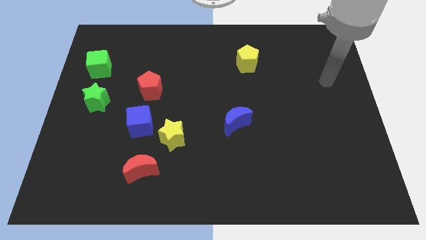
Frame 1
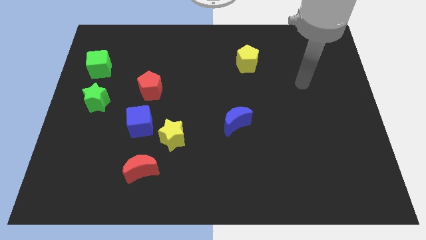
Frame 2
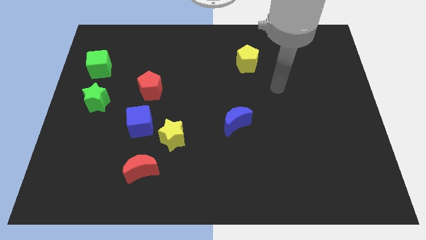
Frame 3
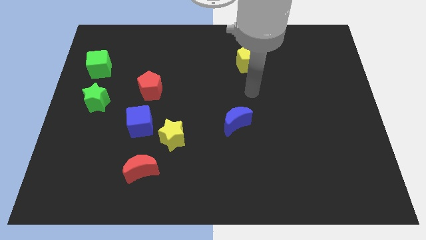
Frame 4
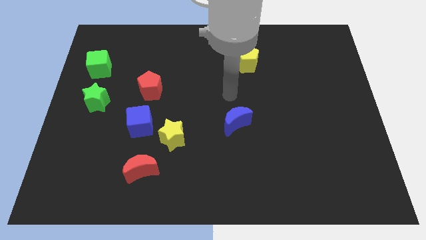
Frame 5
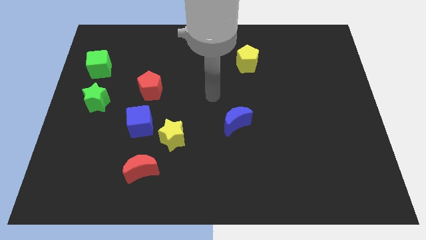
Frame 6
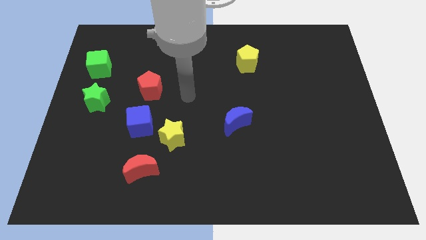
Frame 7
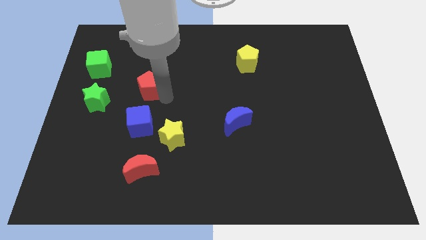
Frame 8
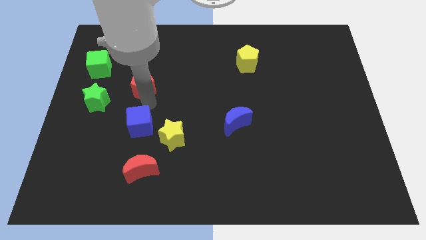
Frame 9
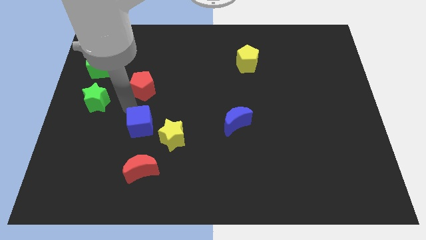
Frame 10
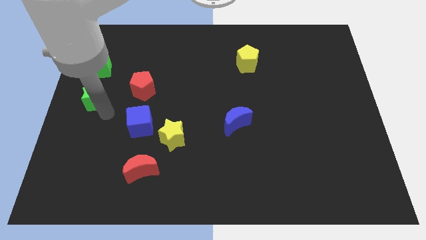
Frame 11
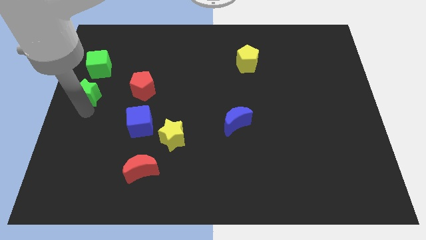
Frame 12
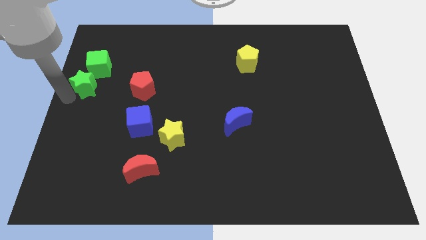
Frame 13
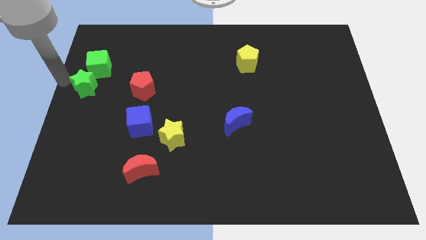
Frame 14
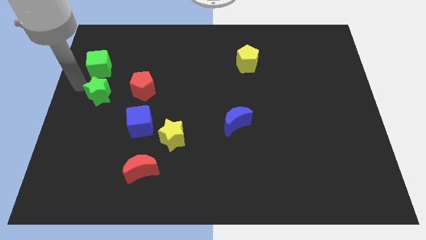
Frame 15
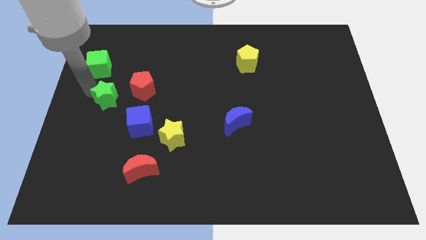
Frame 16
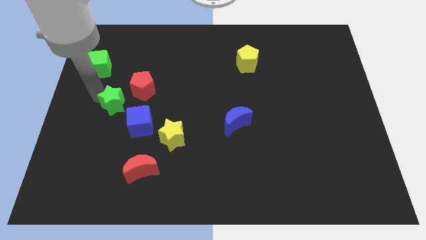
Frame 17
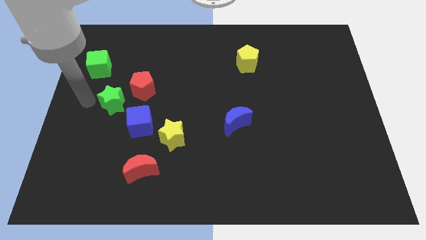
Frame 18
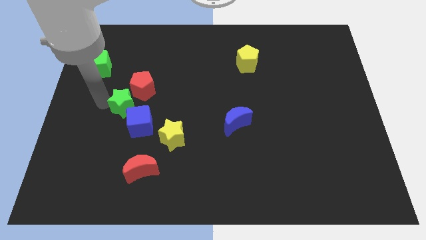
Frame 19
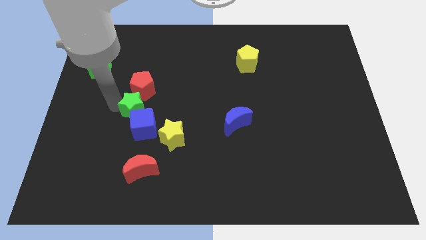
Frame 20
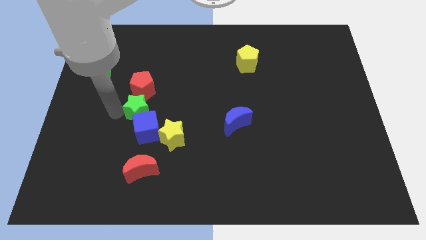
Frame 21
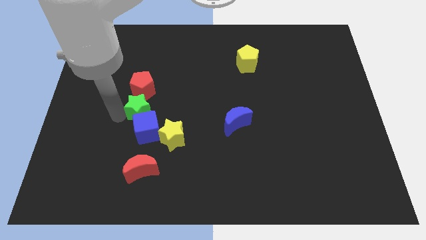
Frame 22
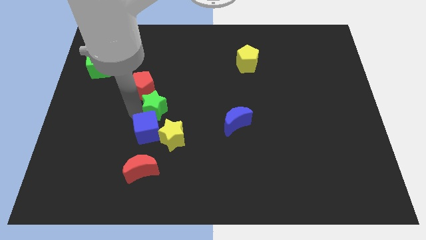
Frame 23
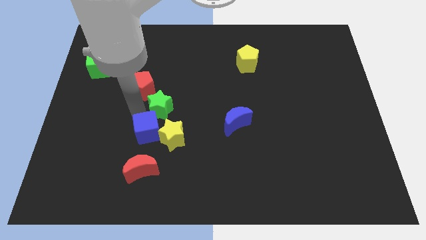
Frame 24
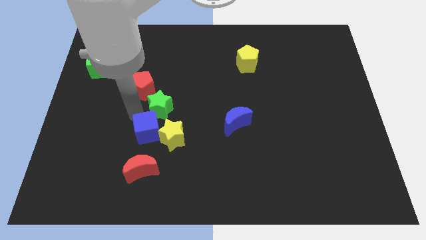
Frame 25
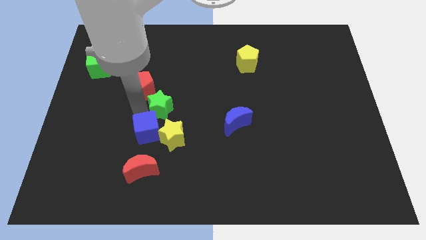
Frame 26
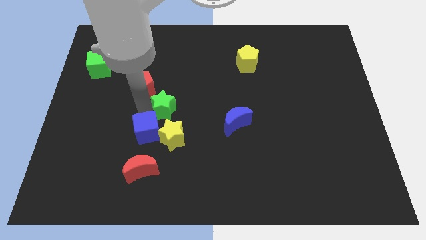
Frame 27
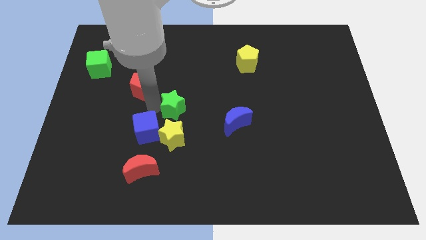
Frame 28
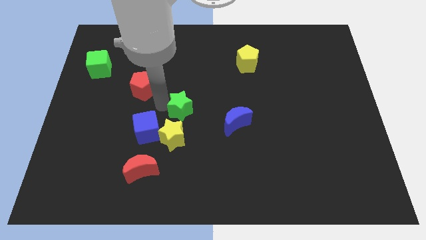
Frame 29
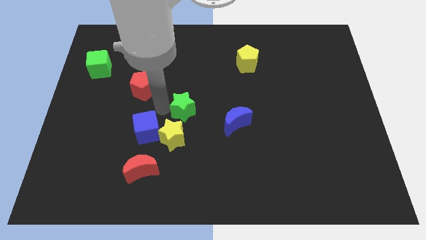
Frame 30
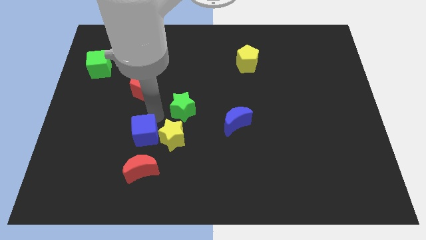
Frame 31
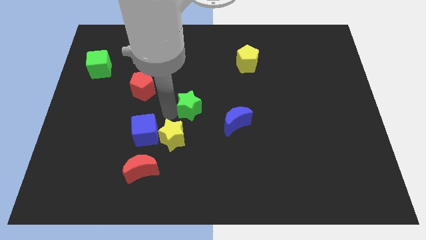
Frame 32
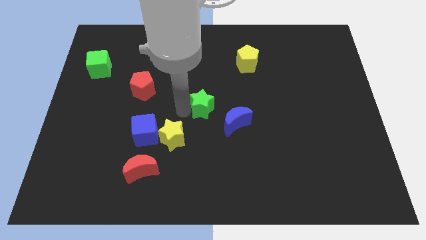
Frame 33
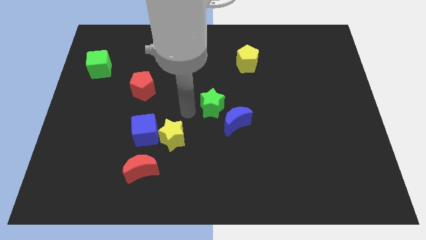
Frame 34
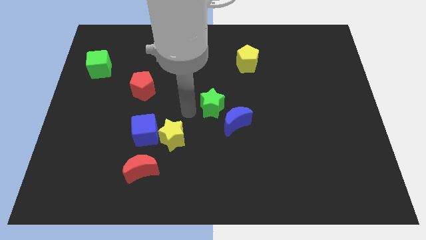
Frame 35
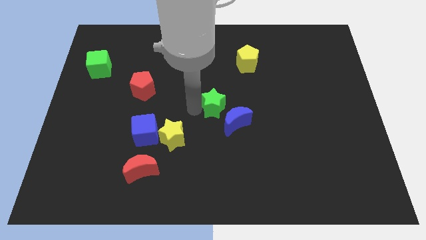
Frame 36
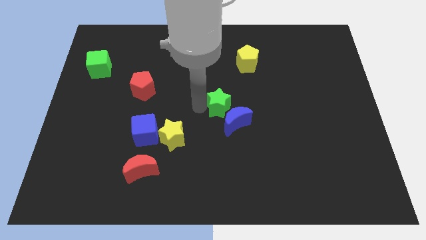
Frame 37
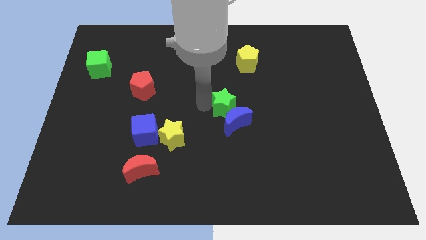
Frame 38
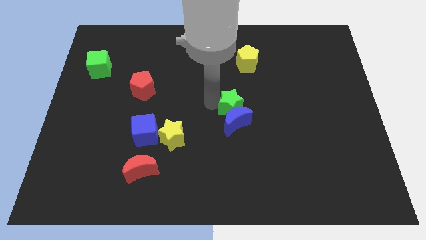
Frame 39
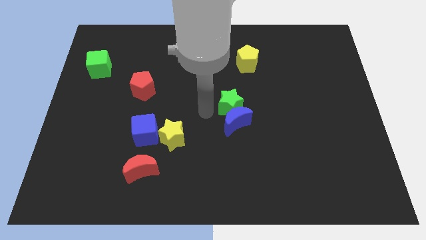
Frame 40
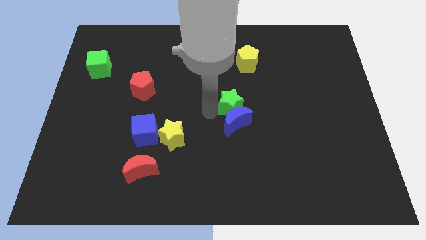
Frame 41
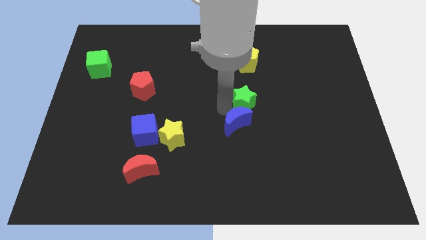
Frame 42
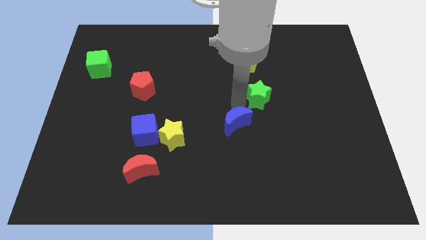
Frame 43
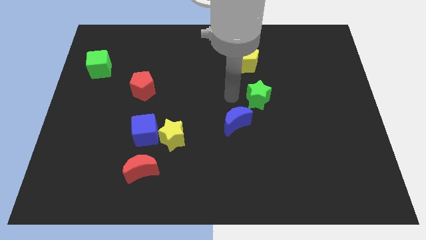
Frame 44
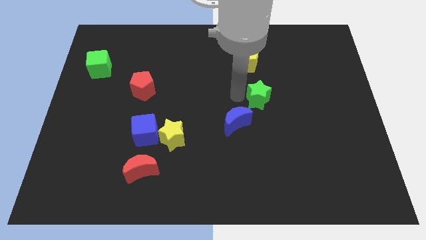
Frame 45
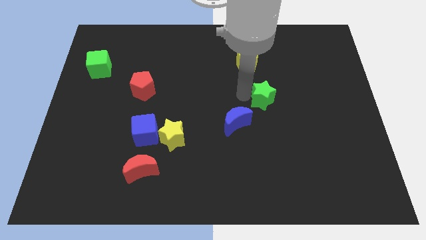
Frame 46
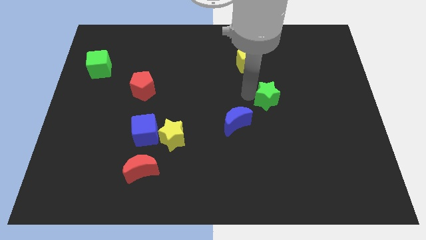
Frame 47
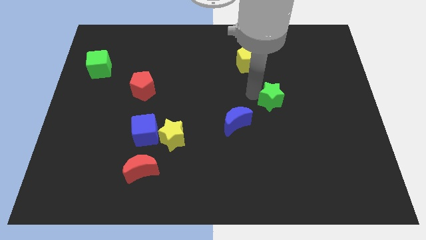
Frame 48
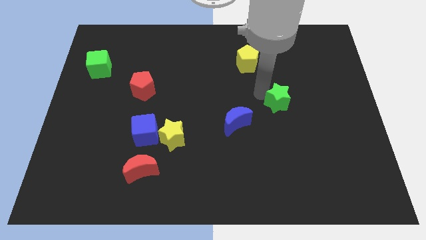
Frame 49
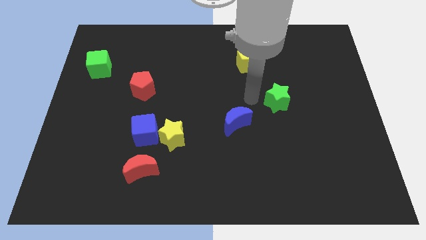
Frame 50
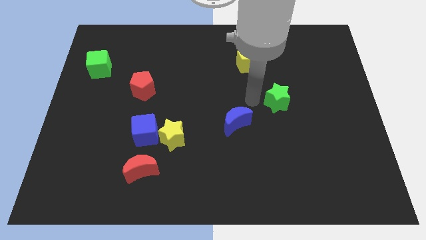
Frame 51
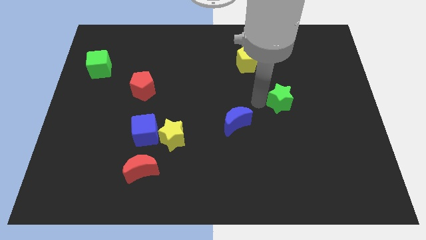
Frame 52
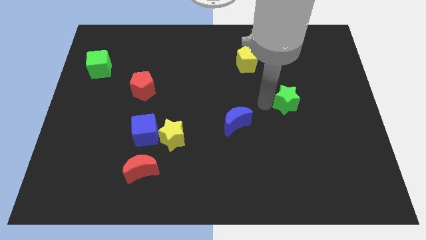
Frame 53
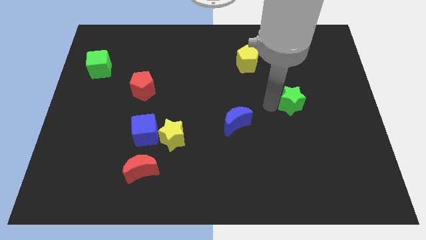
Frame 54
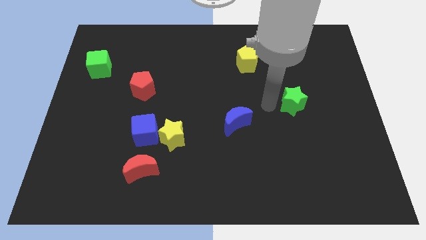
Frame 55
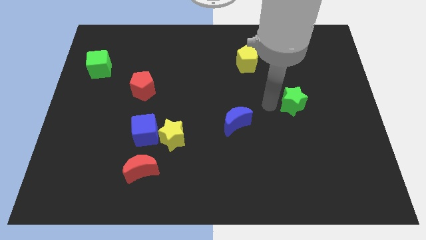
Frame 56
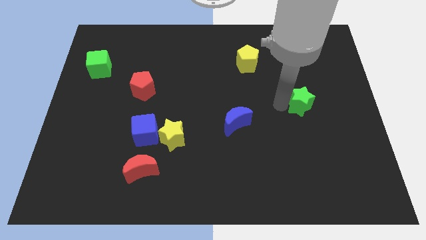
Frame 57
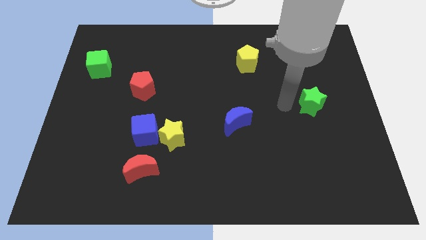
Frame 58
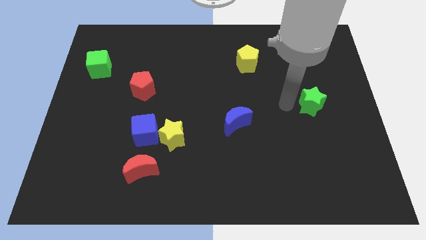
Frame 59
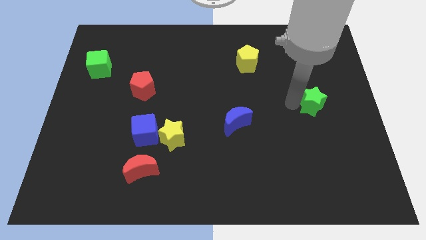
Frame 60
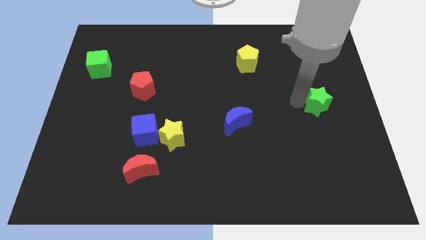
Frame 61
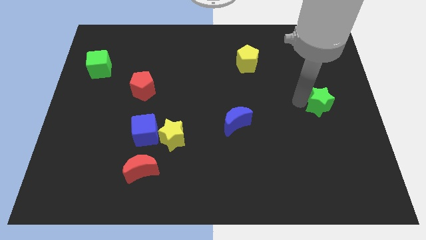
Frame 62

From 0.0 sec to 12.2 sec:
push the green star to the center right

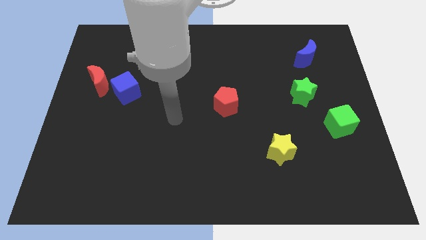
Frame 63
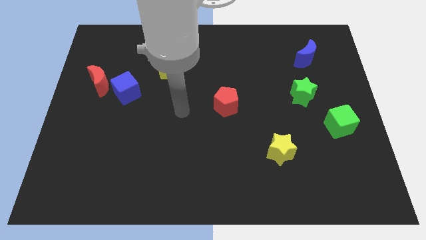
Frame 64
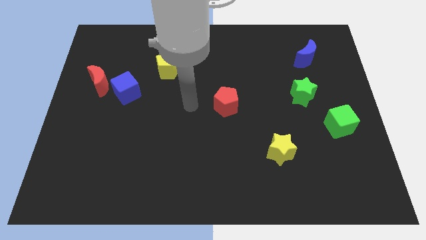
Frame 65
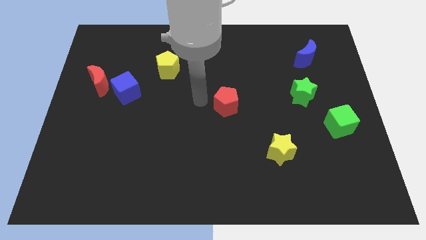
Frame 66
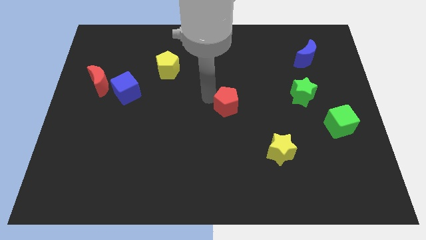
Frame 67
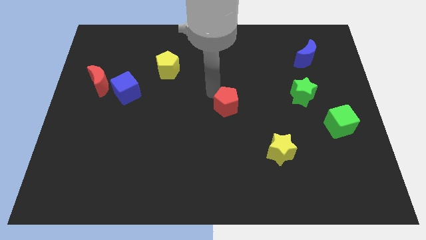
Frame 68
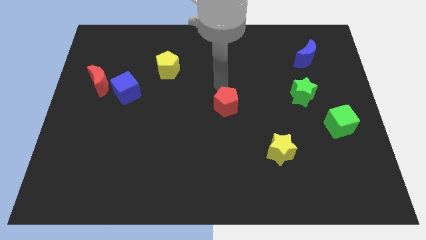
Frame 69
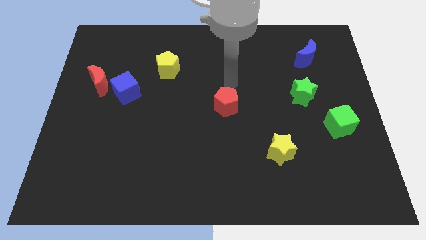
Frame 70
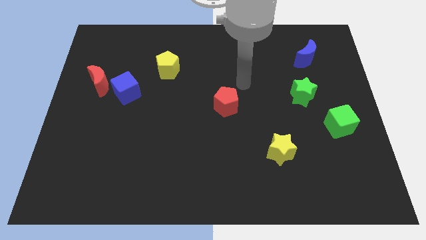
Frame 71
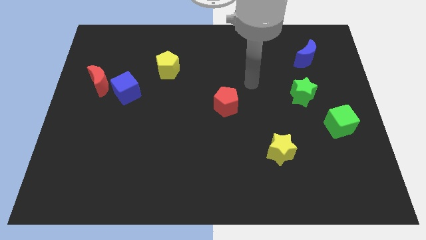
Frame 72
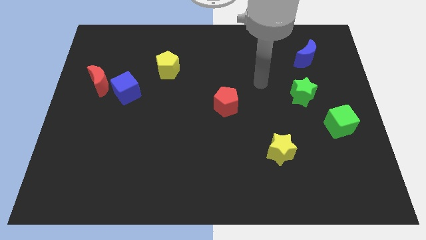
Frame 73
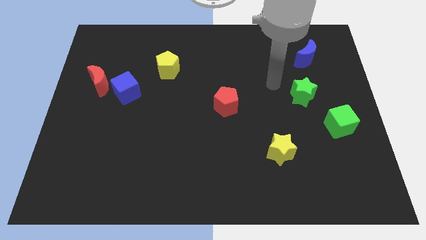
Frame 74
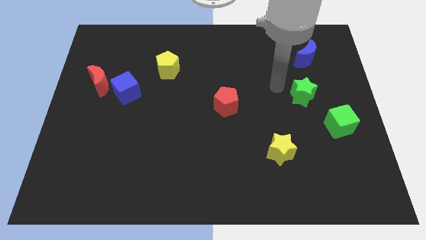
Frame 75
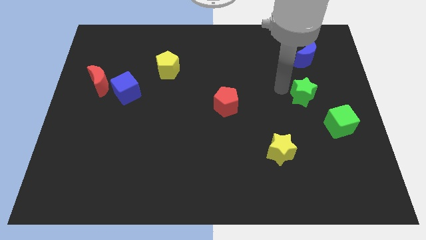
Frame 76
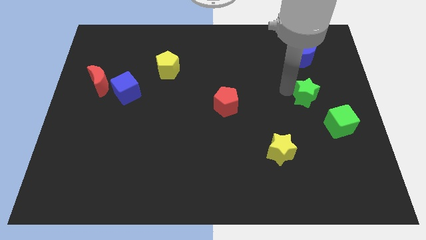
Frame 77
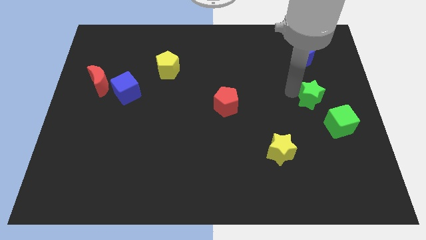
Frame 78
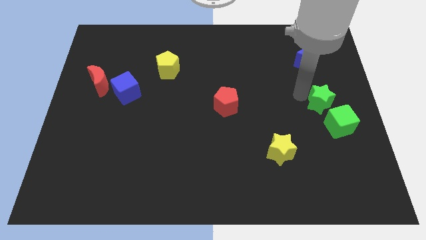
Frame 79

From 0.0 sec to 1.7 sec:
slide the green star to the right side of the board
